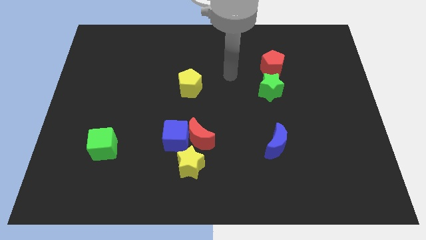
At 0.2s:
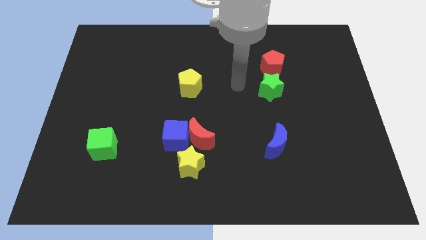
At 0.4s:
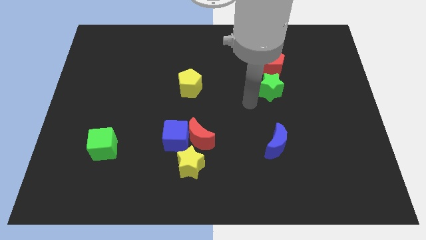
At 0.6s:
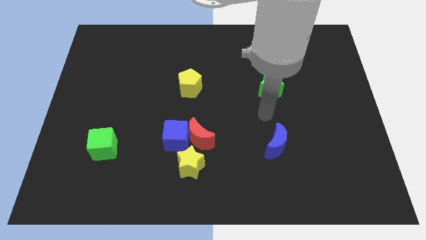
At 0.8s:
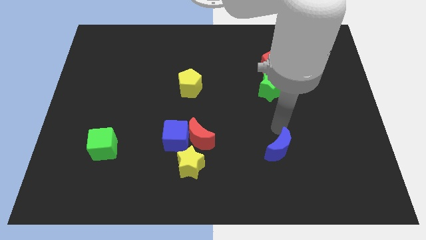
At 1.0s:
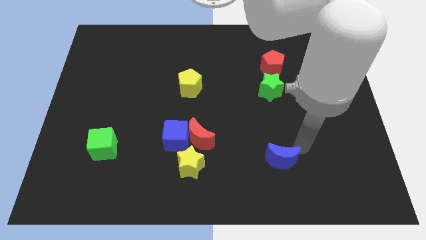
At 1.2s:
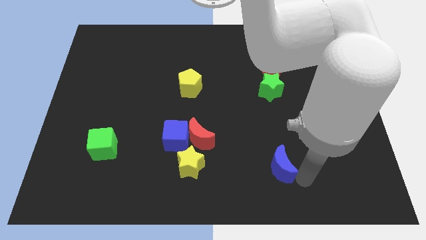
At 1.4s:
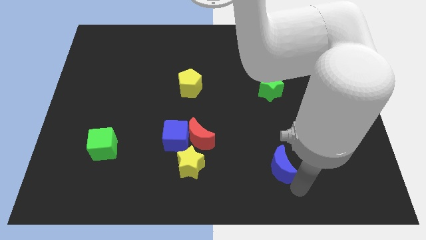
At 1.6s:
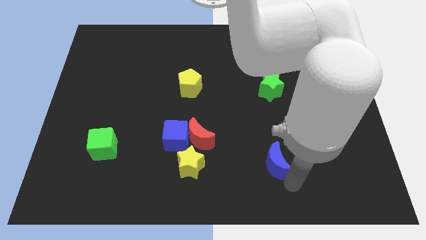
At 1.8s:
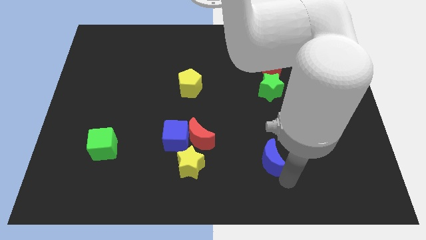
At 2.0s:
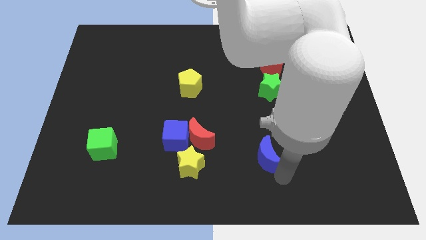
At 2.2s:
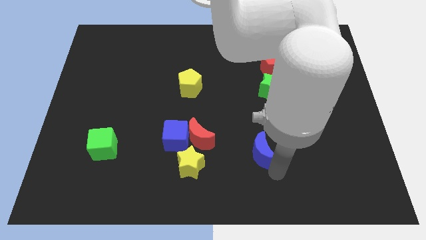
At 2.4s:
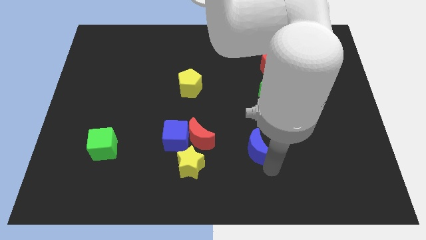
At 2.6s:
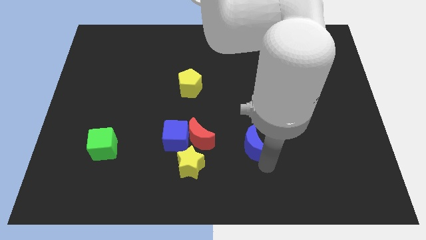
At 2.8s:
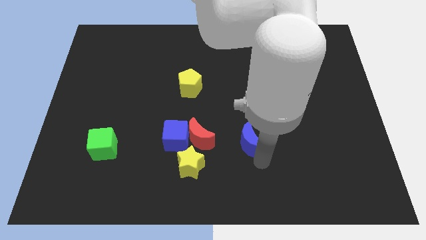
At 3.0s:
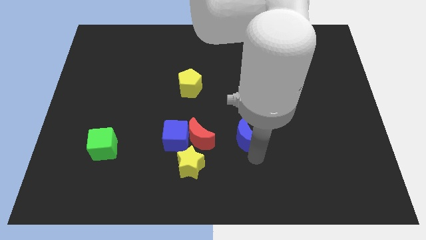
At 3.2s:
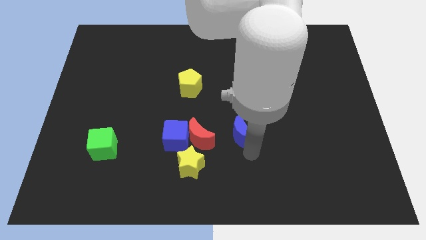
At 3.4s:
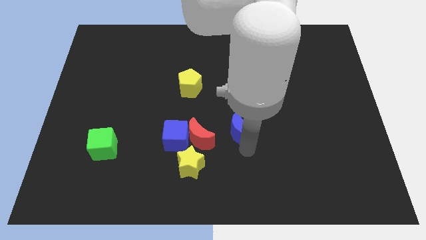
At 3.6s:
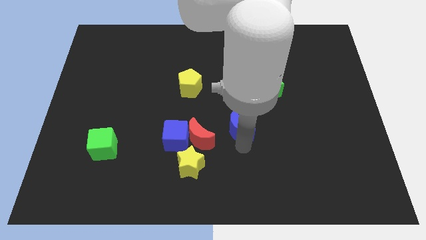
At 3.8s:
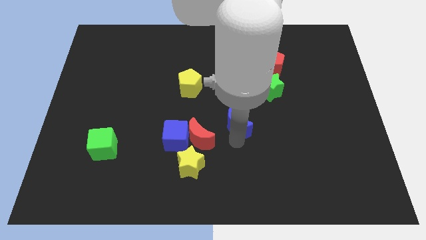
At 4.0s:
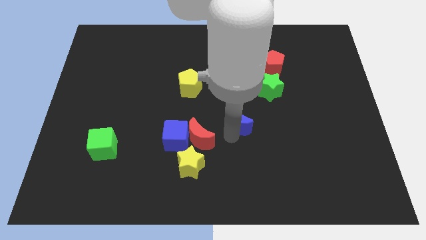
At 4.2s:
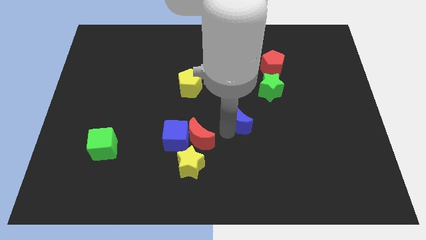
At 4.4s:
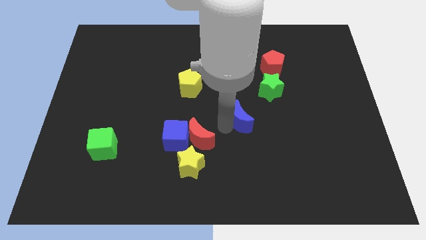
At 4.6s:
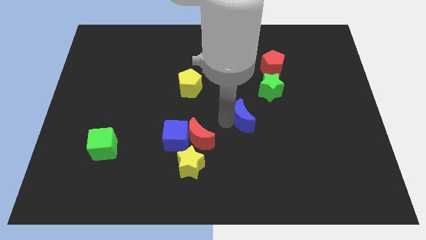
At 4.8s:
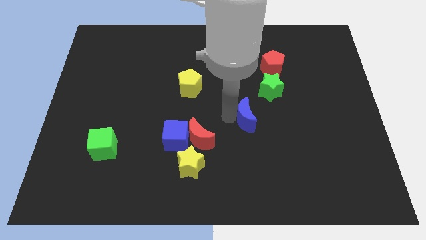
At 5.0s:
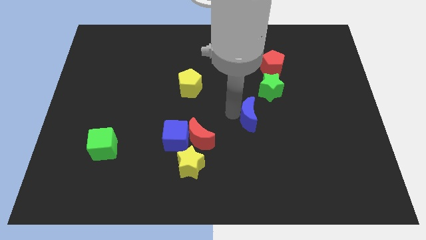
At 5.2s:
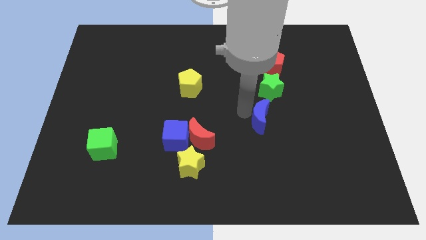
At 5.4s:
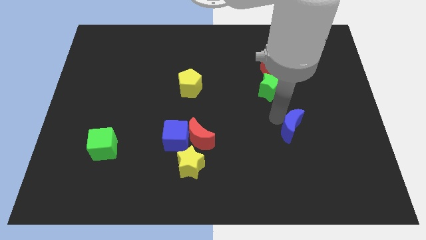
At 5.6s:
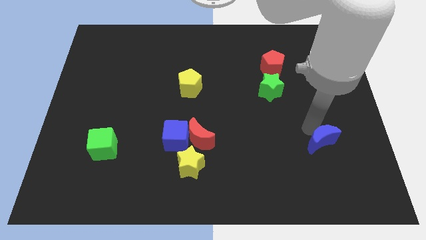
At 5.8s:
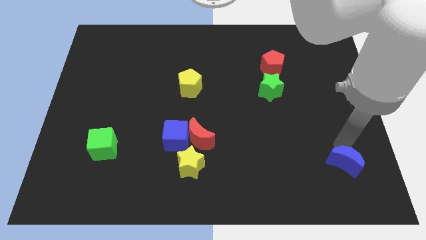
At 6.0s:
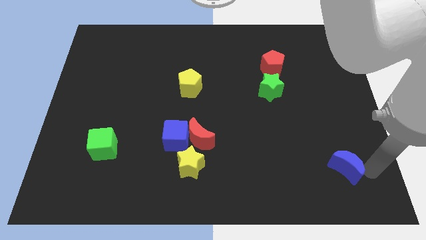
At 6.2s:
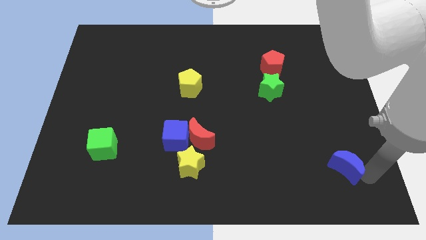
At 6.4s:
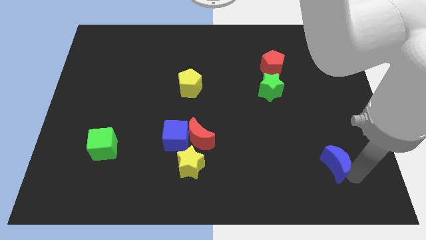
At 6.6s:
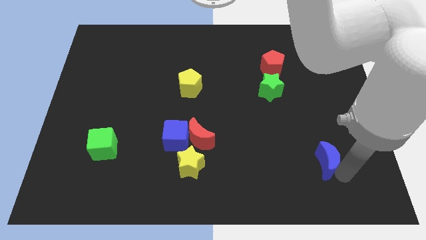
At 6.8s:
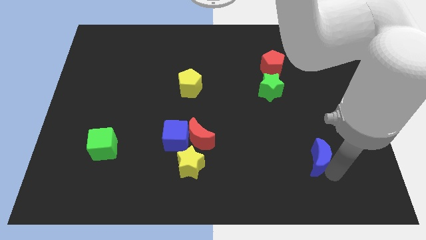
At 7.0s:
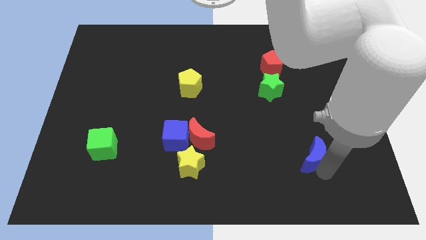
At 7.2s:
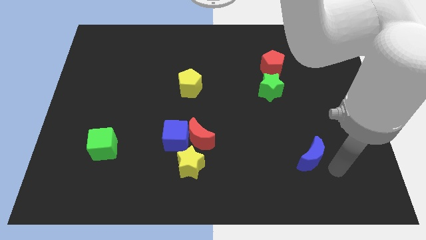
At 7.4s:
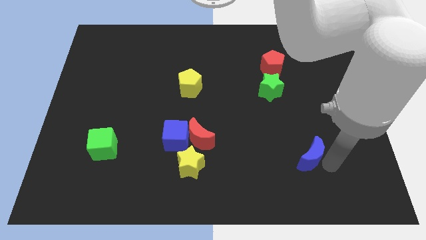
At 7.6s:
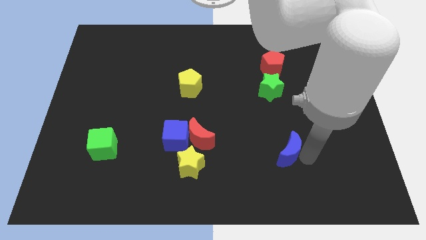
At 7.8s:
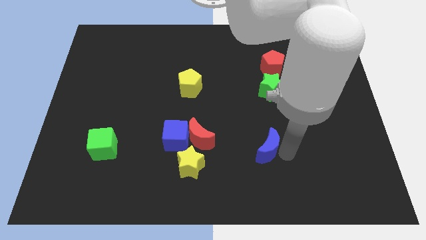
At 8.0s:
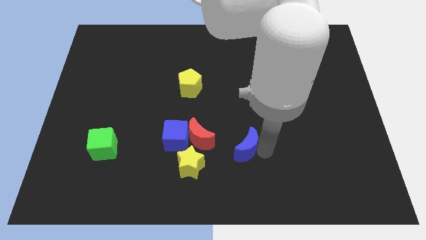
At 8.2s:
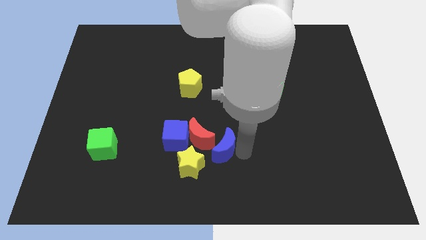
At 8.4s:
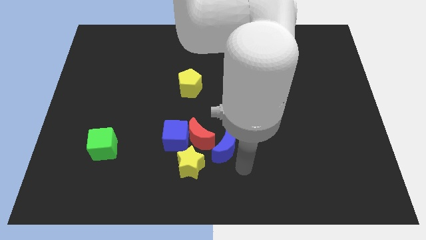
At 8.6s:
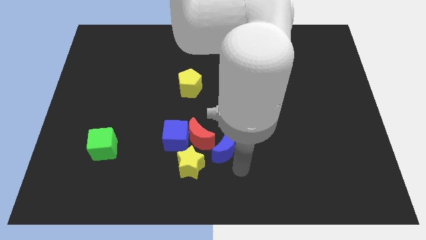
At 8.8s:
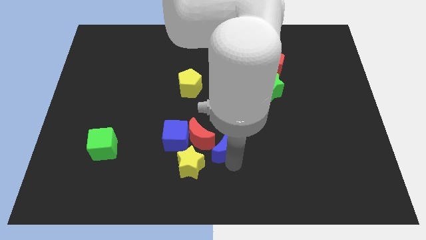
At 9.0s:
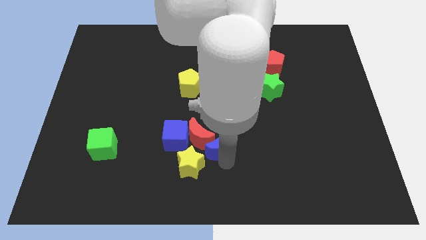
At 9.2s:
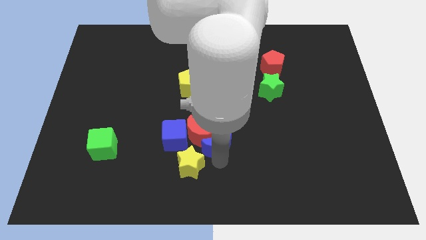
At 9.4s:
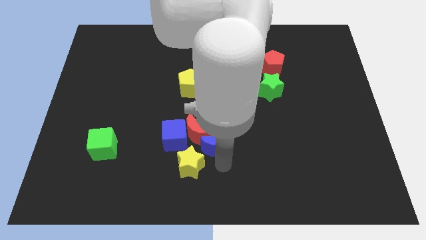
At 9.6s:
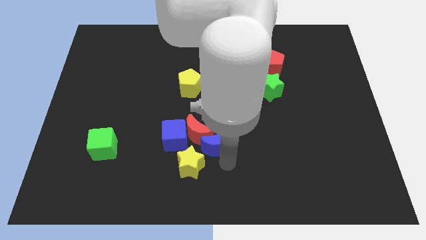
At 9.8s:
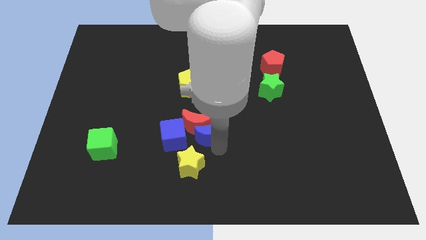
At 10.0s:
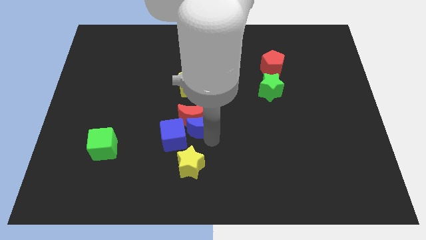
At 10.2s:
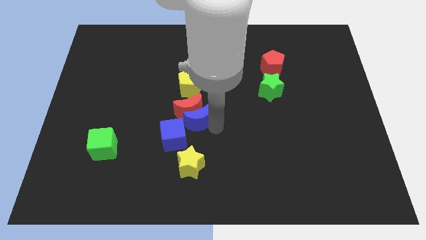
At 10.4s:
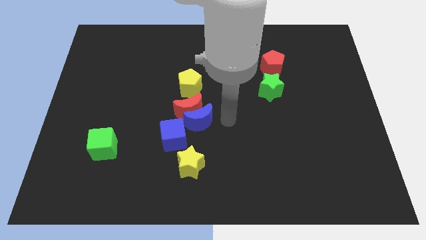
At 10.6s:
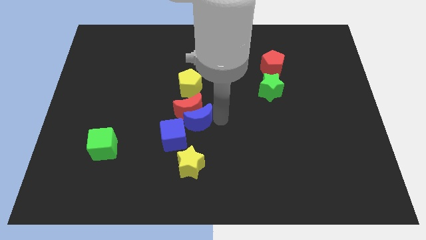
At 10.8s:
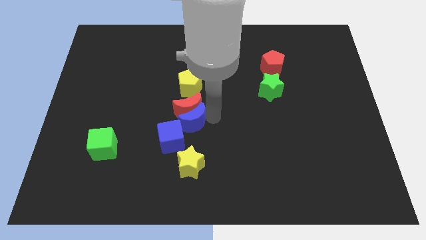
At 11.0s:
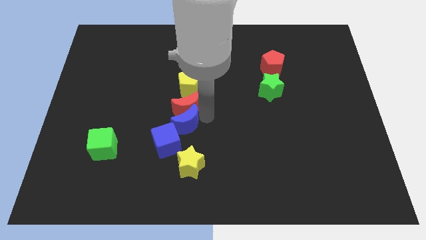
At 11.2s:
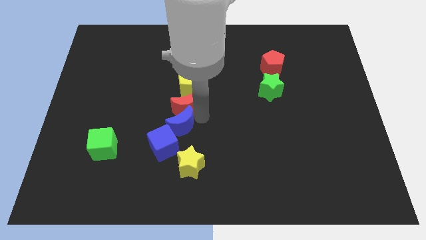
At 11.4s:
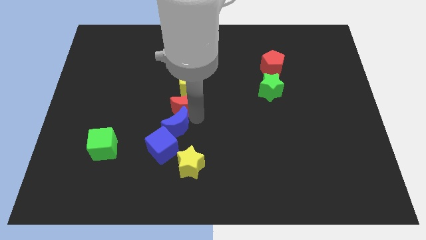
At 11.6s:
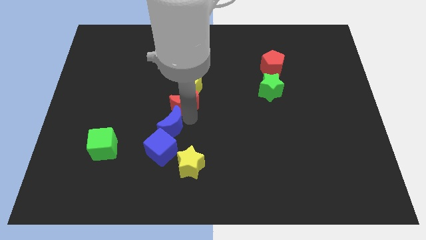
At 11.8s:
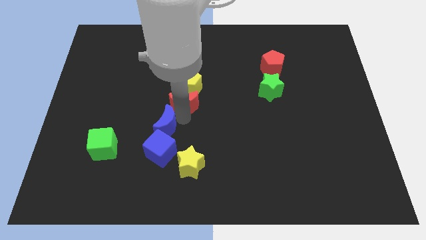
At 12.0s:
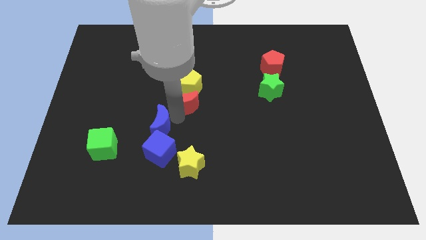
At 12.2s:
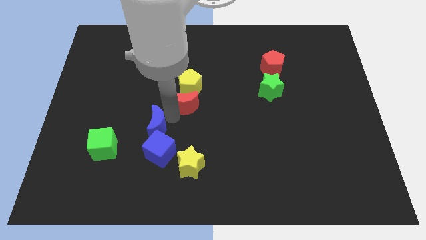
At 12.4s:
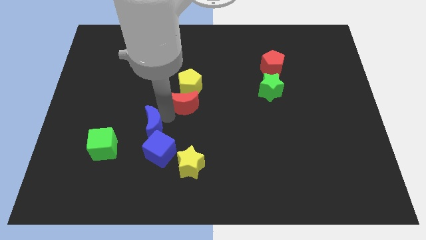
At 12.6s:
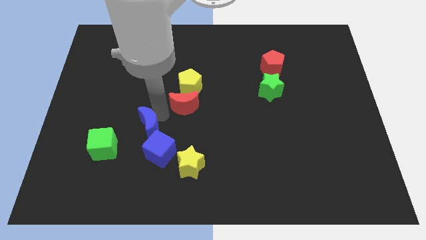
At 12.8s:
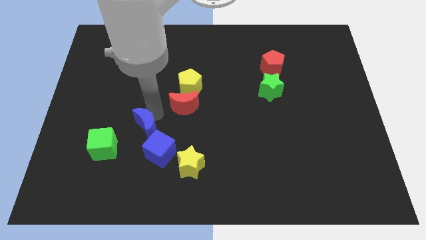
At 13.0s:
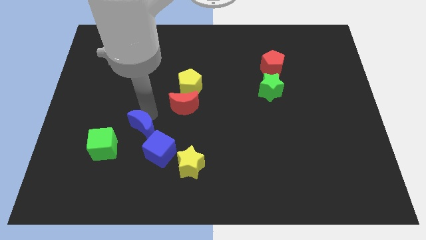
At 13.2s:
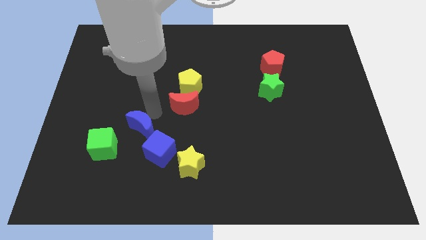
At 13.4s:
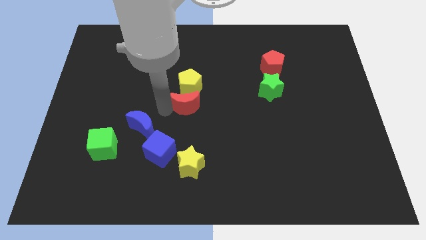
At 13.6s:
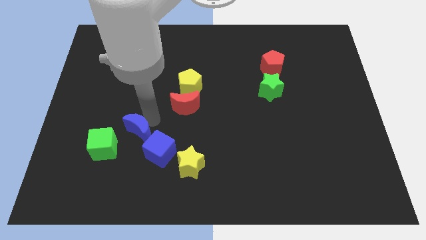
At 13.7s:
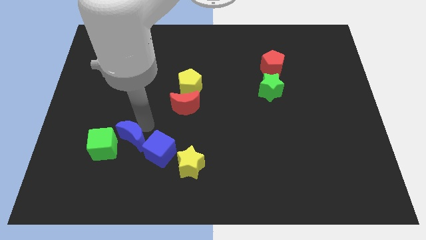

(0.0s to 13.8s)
put the blue moon to the left of the blue cube
